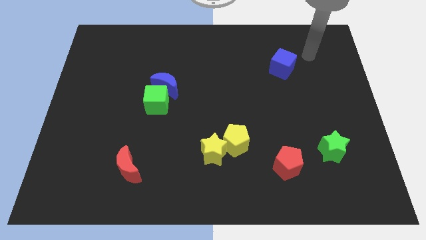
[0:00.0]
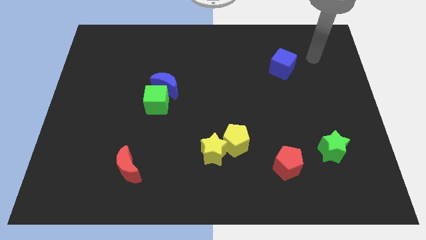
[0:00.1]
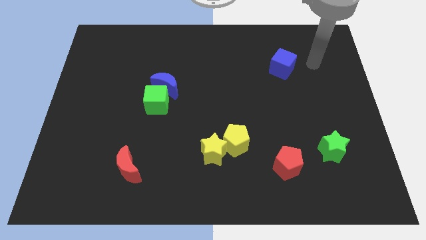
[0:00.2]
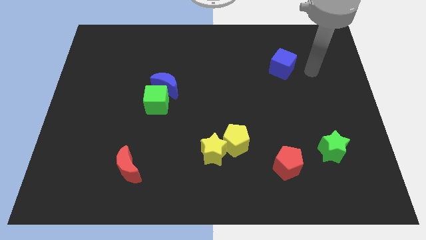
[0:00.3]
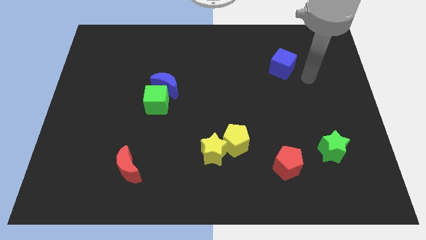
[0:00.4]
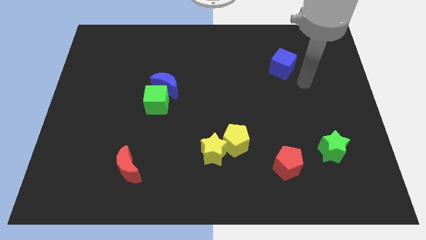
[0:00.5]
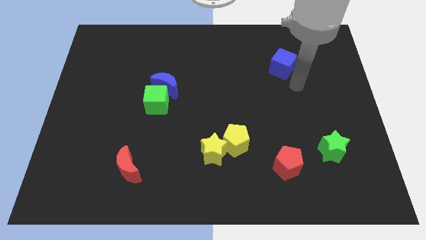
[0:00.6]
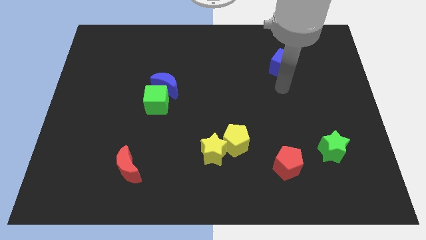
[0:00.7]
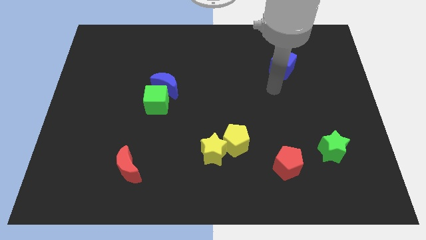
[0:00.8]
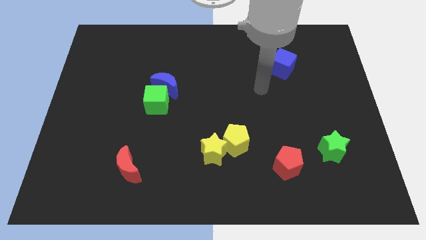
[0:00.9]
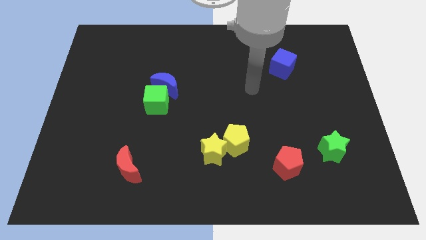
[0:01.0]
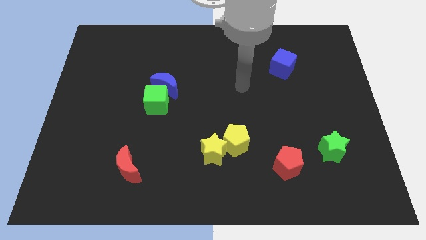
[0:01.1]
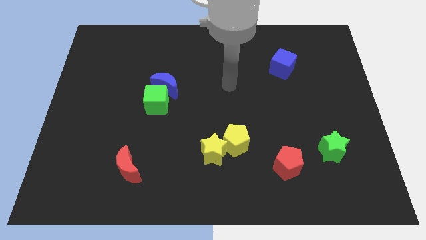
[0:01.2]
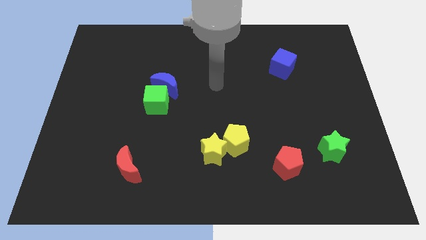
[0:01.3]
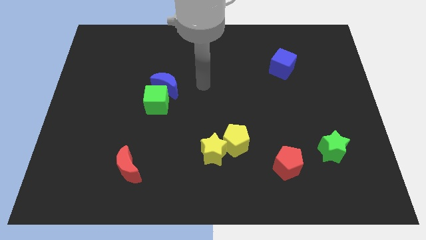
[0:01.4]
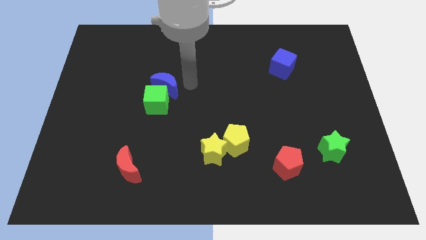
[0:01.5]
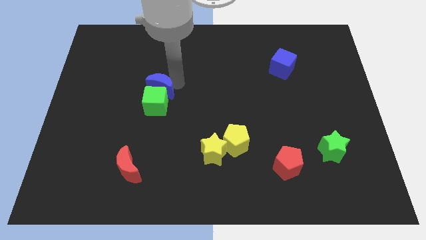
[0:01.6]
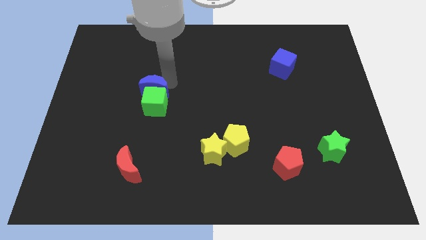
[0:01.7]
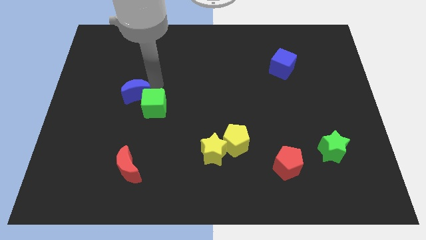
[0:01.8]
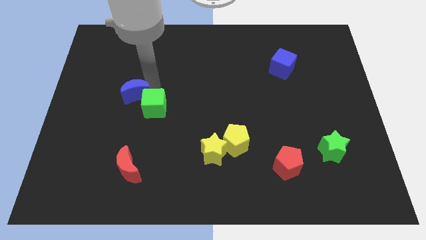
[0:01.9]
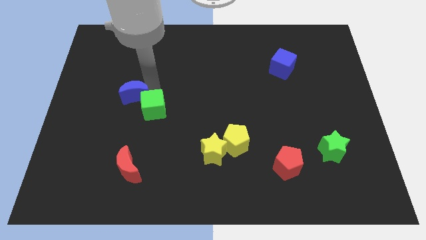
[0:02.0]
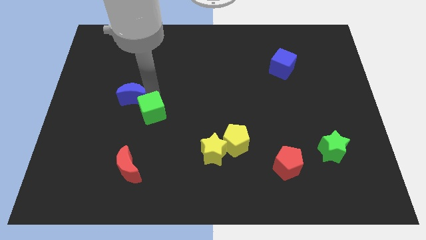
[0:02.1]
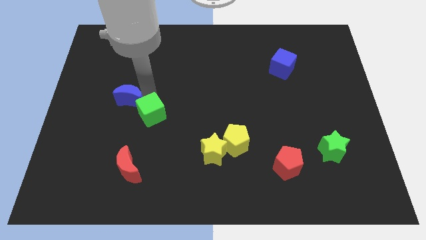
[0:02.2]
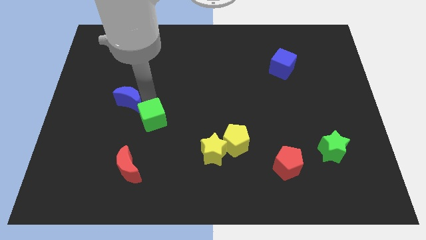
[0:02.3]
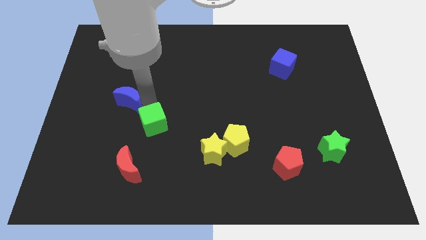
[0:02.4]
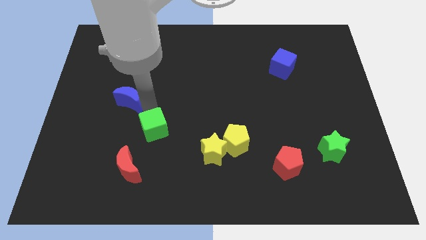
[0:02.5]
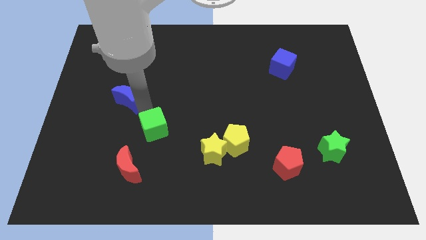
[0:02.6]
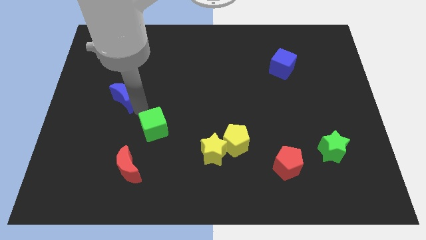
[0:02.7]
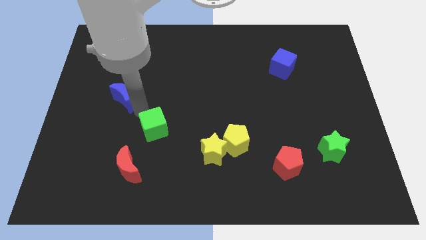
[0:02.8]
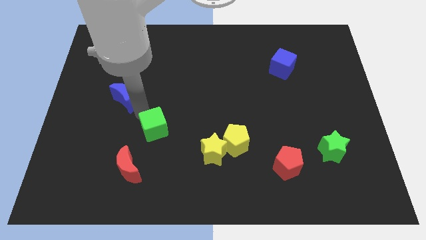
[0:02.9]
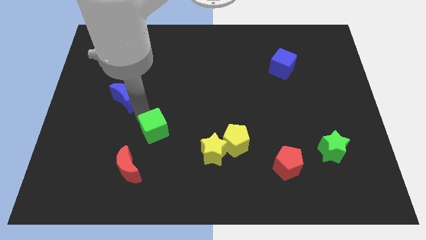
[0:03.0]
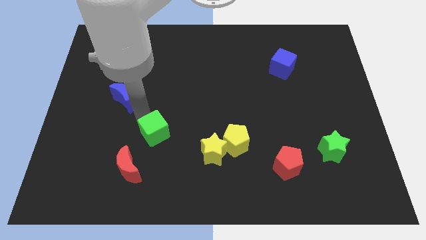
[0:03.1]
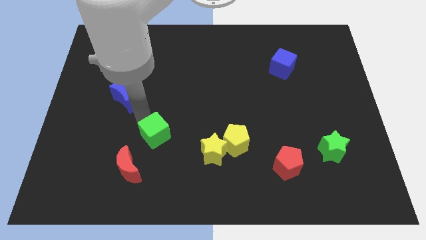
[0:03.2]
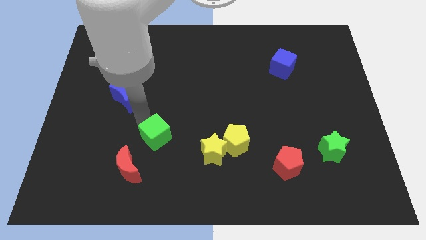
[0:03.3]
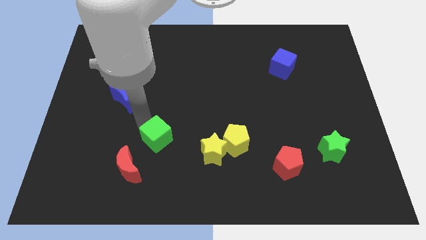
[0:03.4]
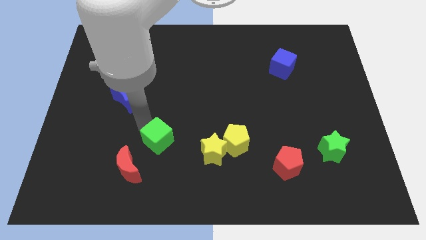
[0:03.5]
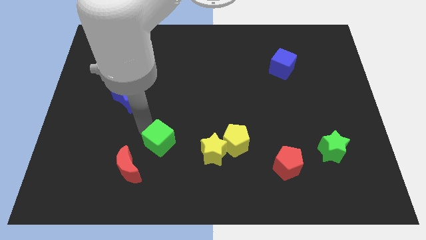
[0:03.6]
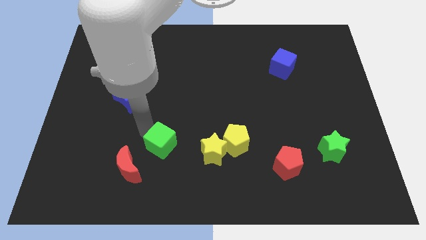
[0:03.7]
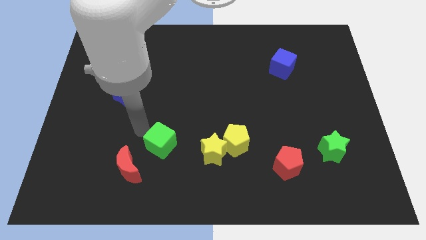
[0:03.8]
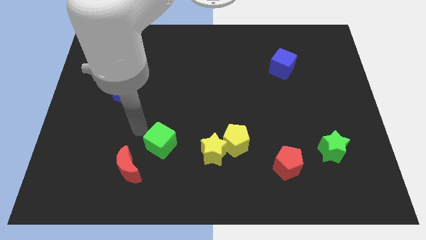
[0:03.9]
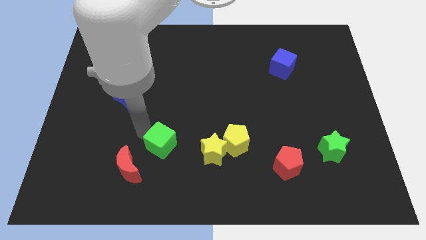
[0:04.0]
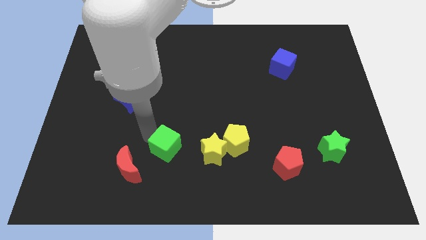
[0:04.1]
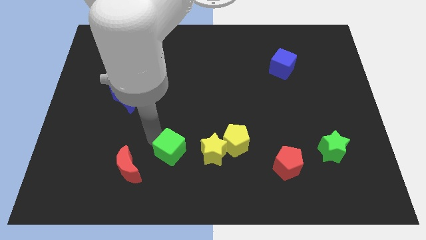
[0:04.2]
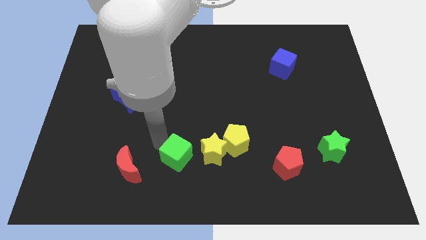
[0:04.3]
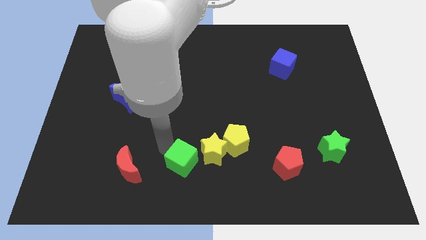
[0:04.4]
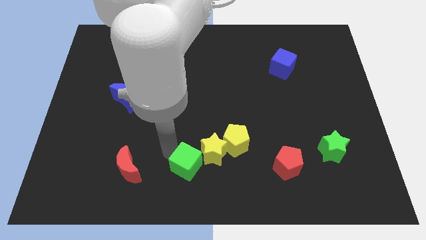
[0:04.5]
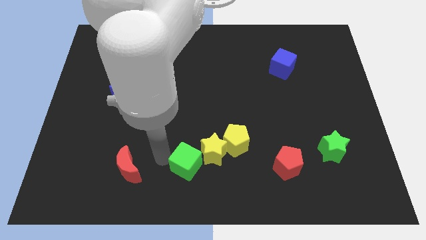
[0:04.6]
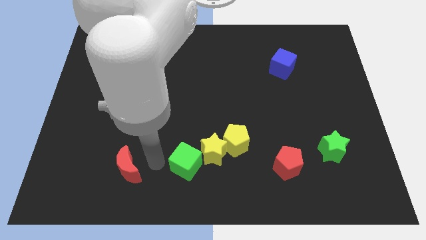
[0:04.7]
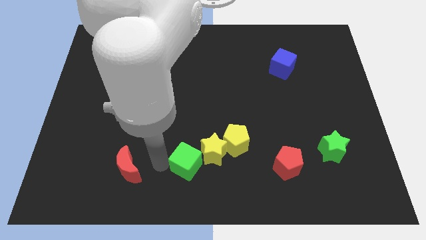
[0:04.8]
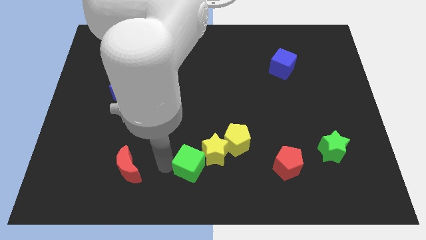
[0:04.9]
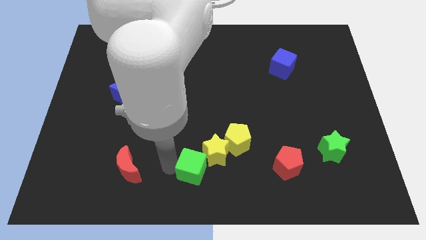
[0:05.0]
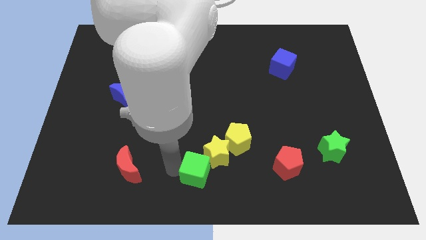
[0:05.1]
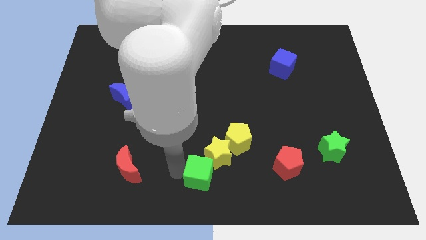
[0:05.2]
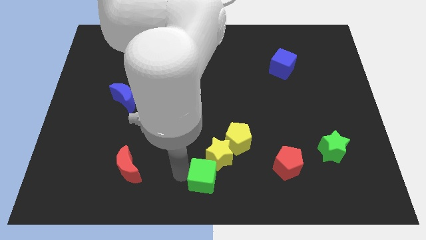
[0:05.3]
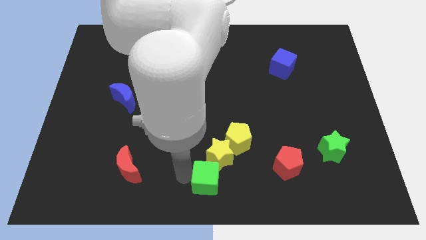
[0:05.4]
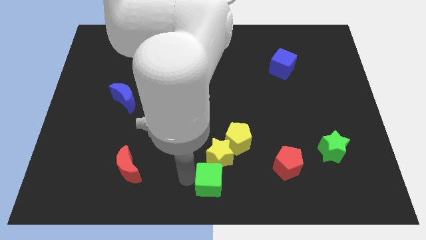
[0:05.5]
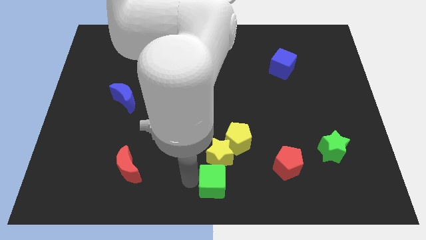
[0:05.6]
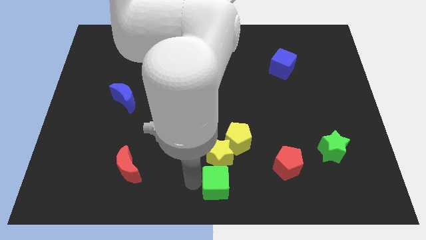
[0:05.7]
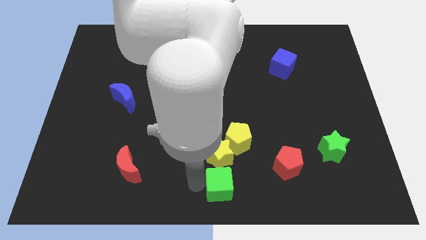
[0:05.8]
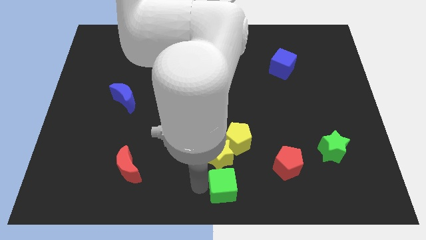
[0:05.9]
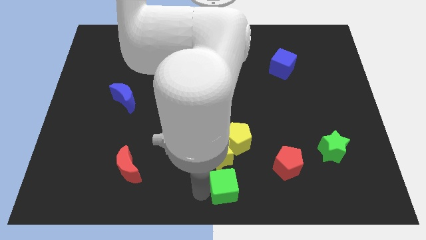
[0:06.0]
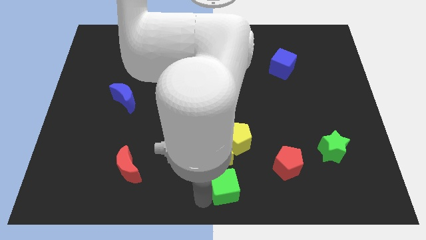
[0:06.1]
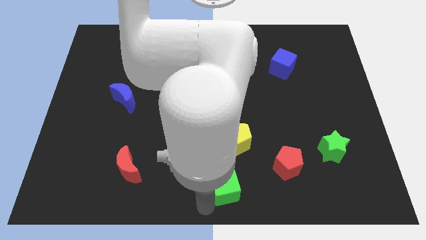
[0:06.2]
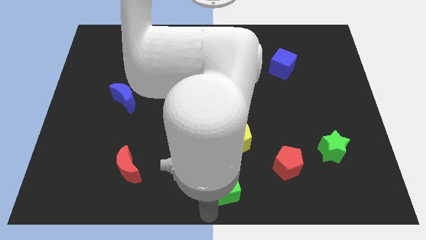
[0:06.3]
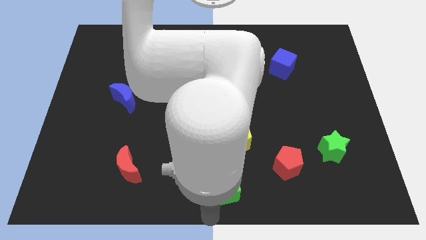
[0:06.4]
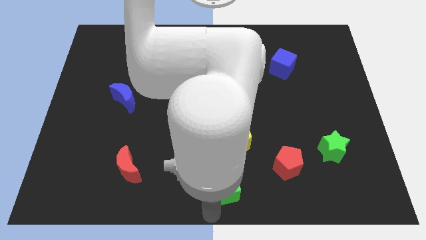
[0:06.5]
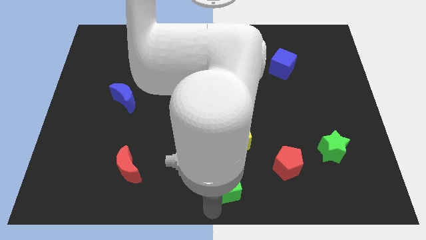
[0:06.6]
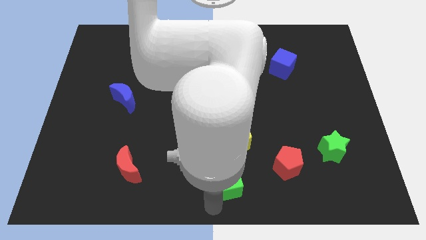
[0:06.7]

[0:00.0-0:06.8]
put the green cube to the left side of the red pentagon
